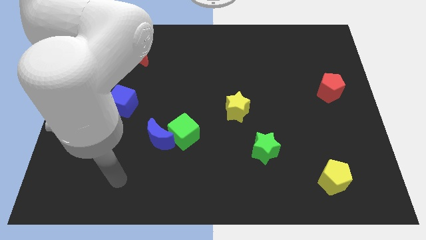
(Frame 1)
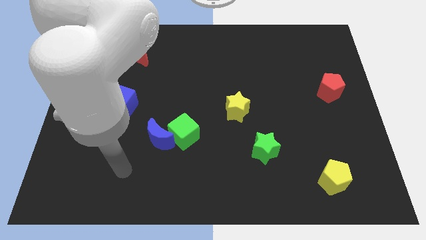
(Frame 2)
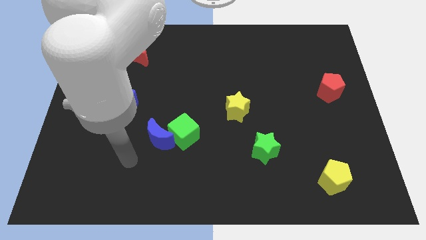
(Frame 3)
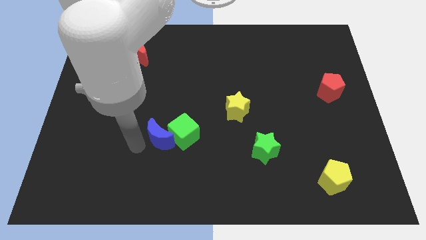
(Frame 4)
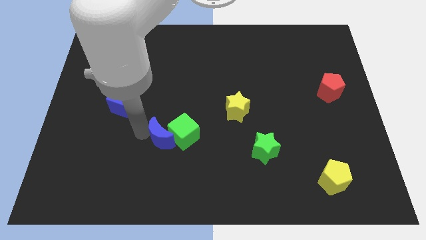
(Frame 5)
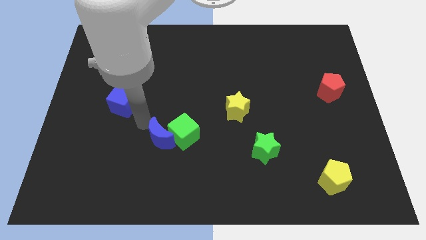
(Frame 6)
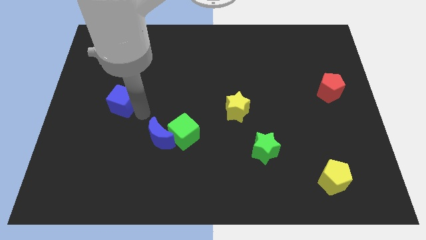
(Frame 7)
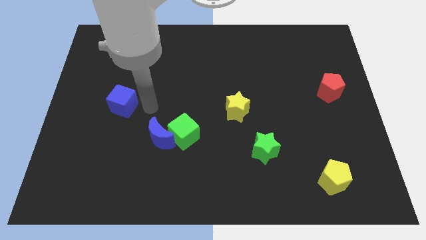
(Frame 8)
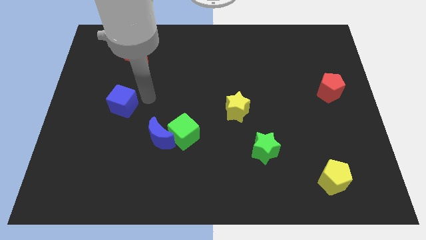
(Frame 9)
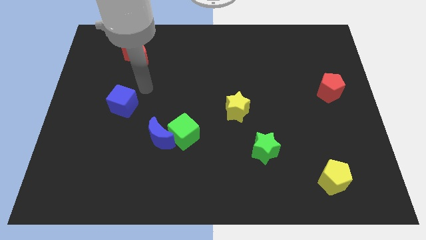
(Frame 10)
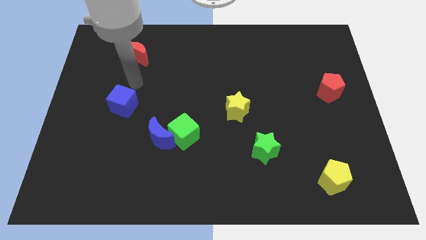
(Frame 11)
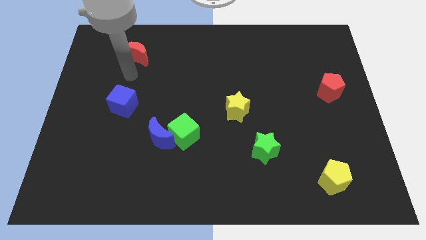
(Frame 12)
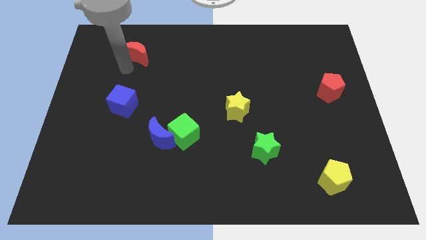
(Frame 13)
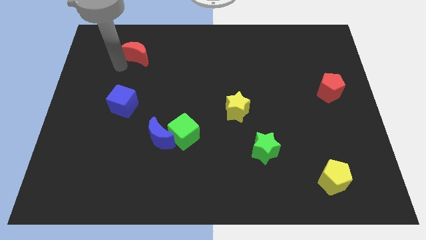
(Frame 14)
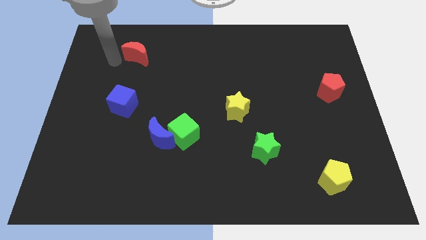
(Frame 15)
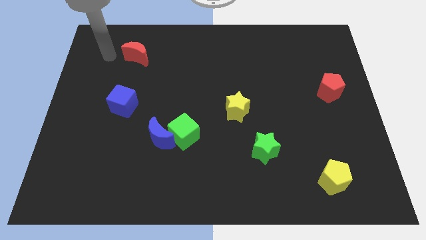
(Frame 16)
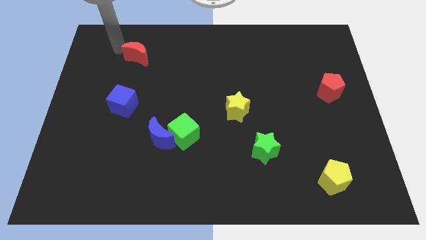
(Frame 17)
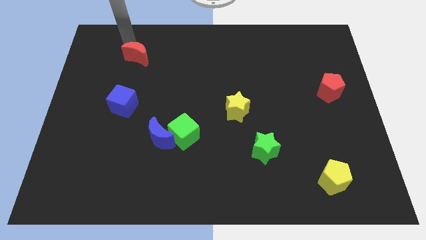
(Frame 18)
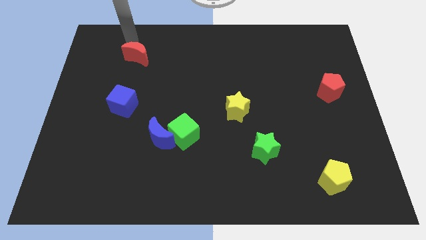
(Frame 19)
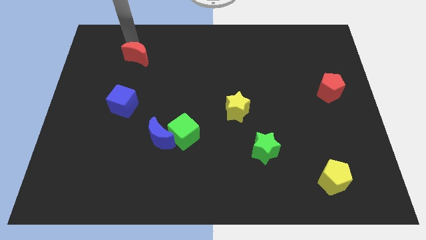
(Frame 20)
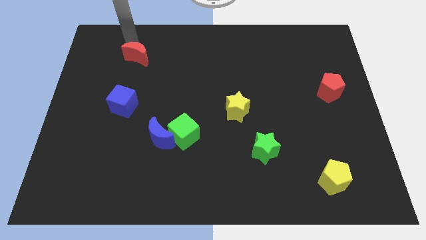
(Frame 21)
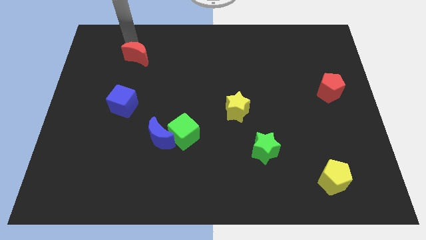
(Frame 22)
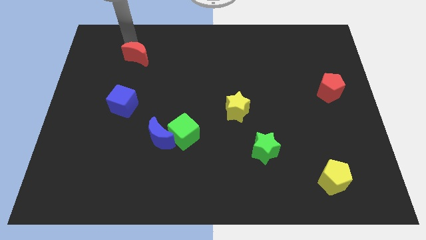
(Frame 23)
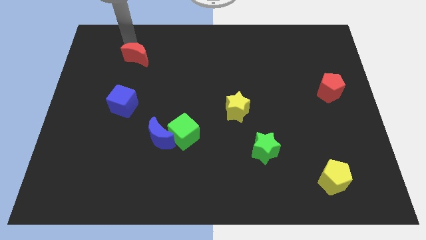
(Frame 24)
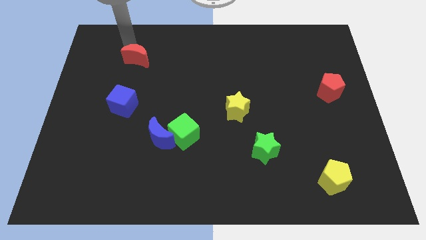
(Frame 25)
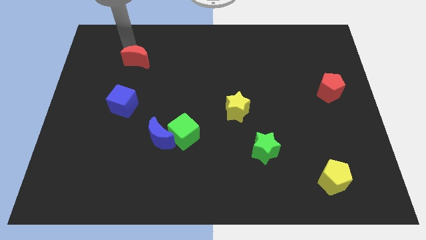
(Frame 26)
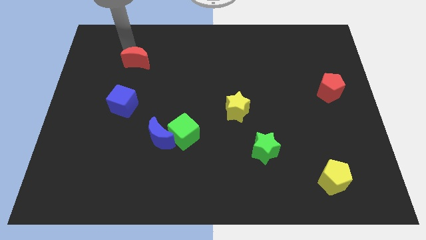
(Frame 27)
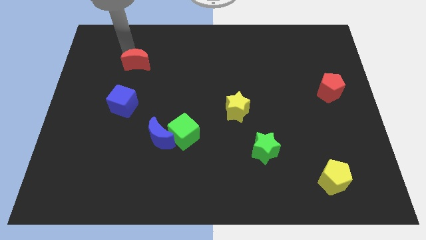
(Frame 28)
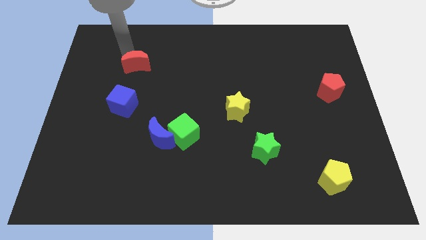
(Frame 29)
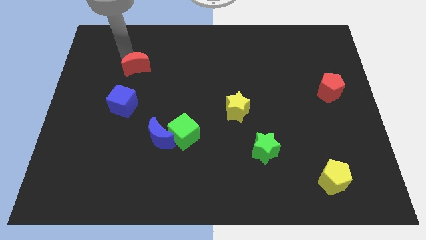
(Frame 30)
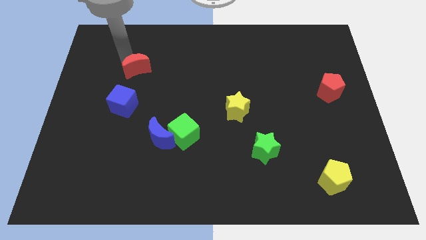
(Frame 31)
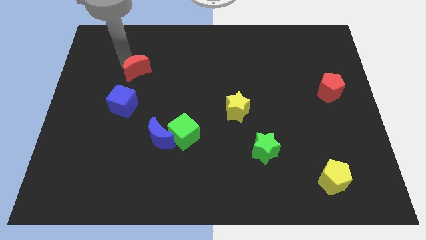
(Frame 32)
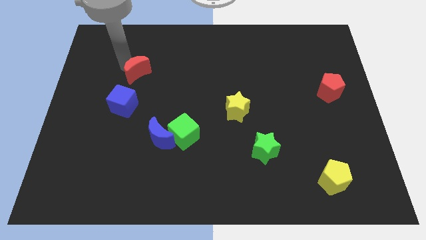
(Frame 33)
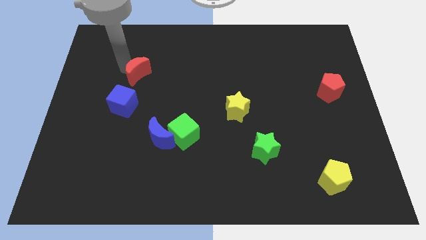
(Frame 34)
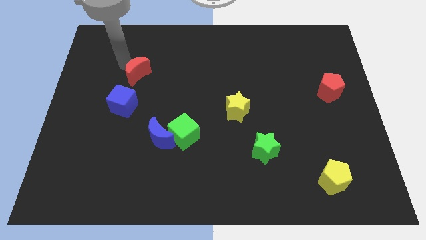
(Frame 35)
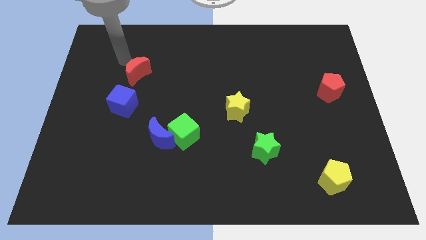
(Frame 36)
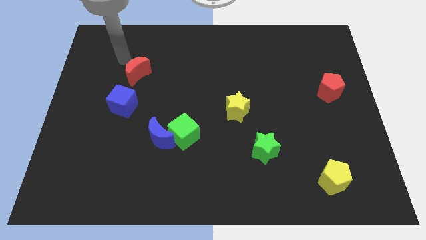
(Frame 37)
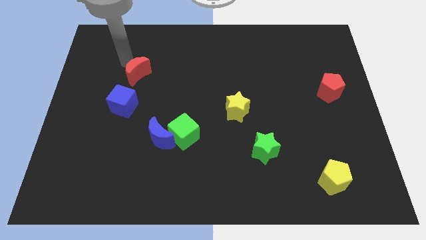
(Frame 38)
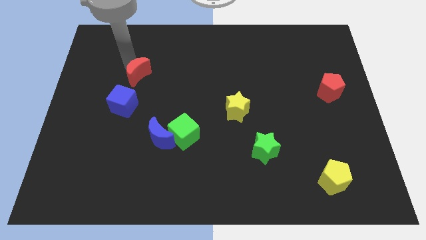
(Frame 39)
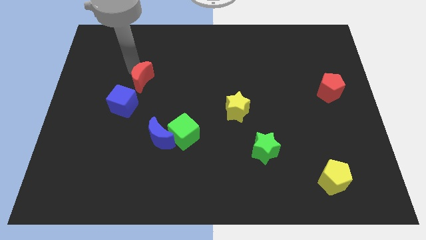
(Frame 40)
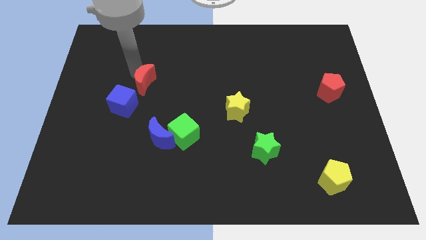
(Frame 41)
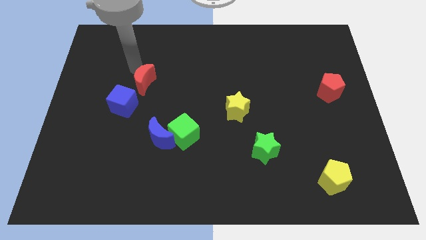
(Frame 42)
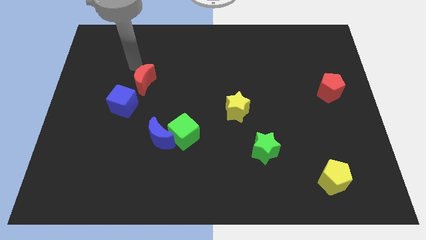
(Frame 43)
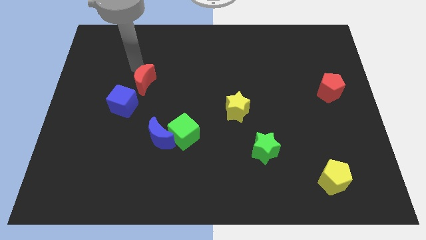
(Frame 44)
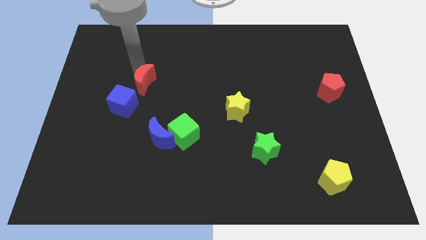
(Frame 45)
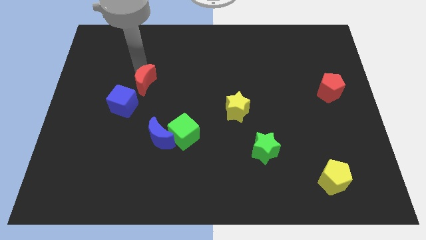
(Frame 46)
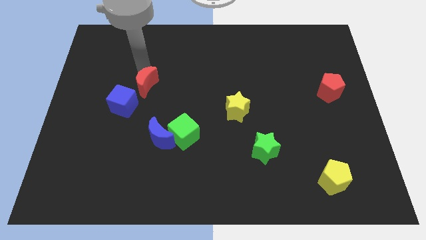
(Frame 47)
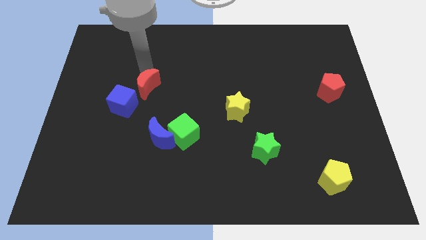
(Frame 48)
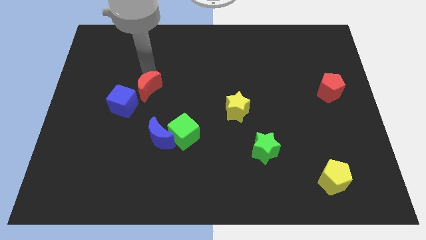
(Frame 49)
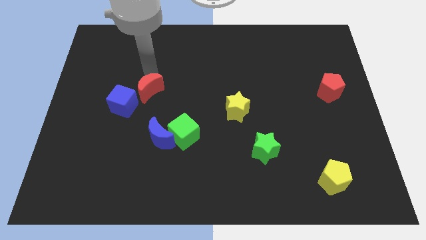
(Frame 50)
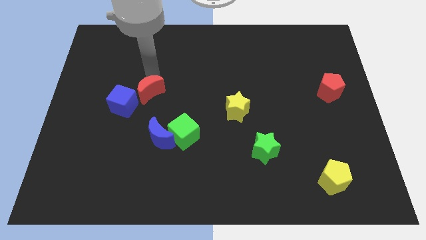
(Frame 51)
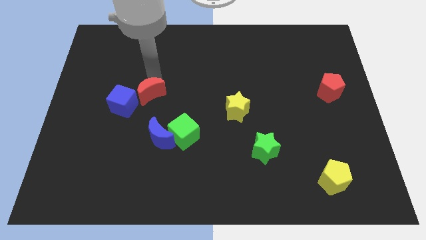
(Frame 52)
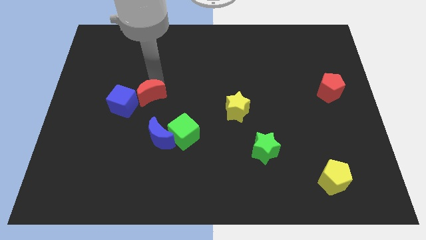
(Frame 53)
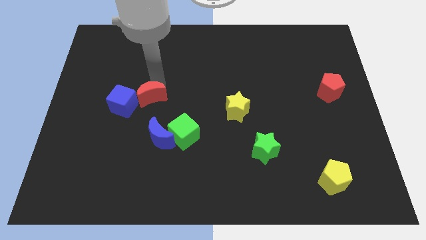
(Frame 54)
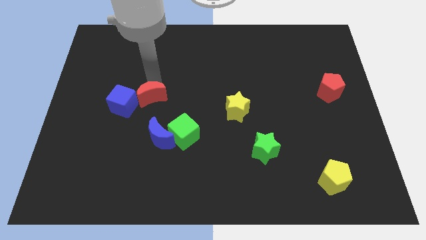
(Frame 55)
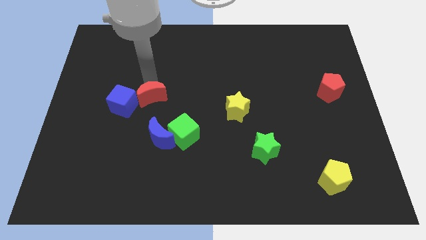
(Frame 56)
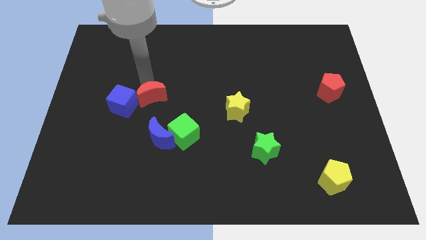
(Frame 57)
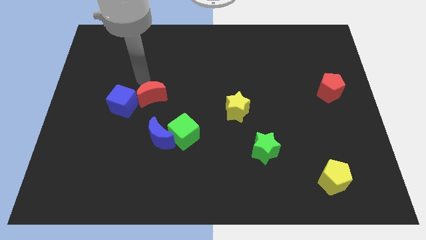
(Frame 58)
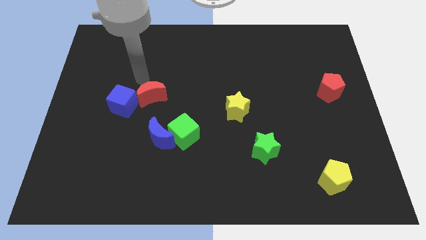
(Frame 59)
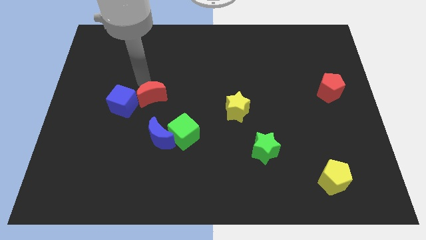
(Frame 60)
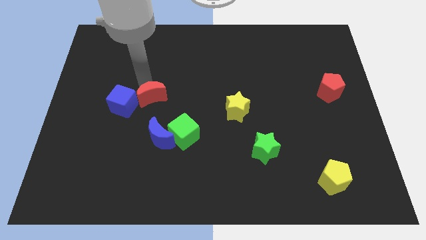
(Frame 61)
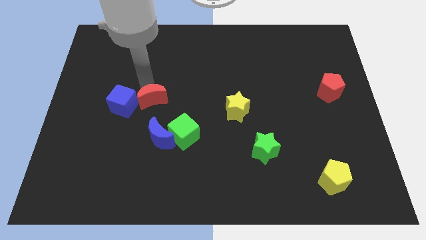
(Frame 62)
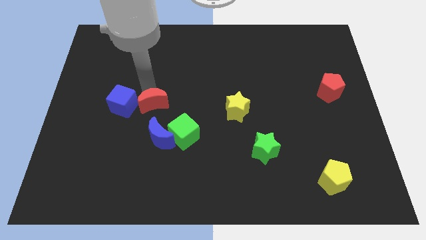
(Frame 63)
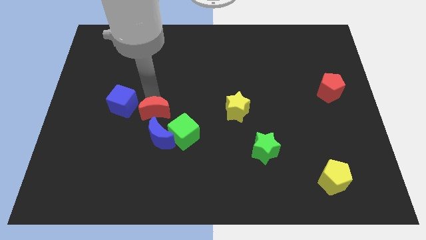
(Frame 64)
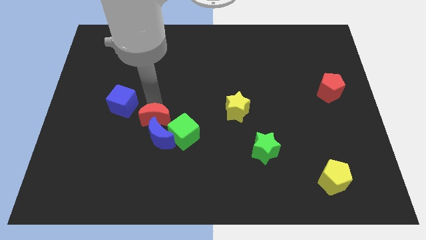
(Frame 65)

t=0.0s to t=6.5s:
move the red moon next to the blue moon

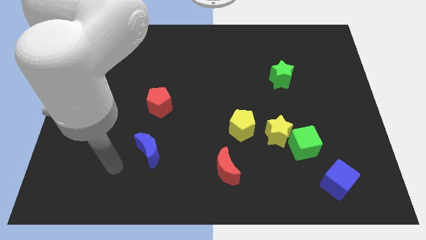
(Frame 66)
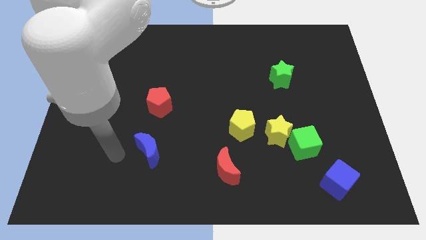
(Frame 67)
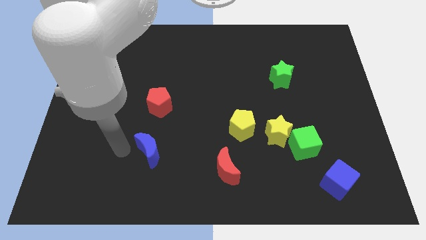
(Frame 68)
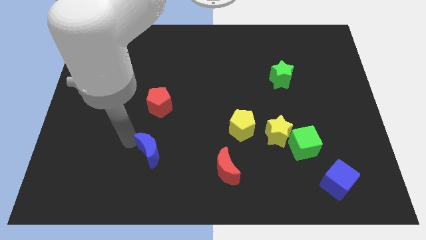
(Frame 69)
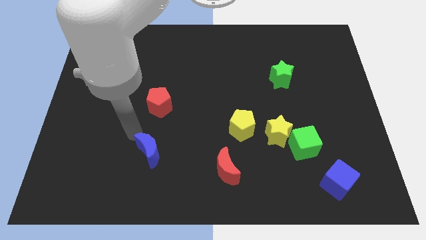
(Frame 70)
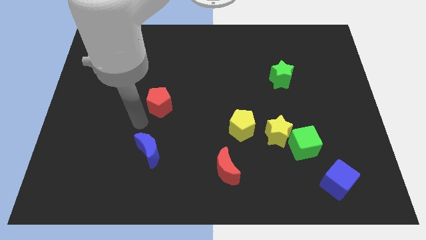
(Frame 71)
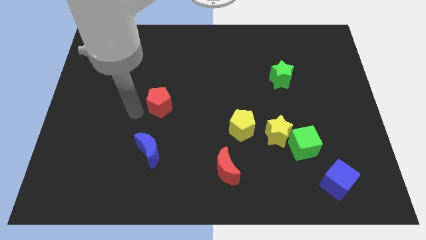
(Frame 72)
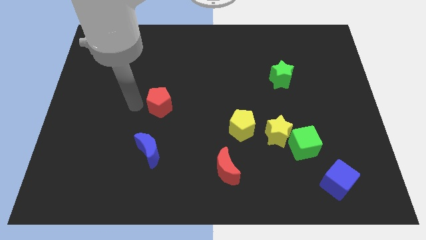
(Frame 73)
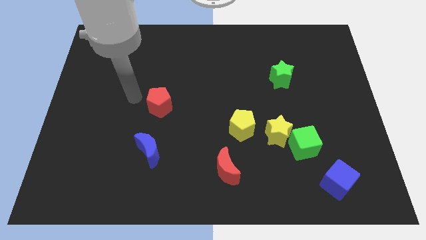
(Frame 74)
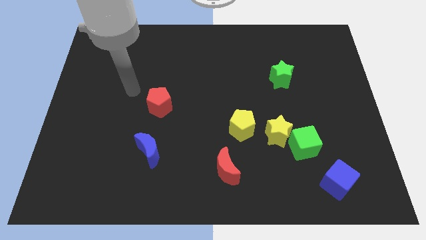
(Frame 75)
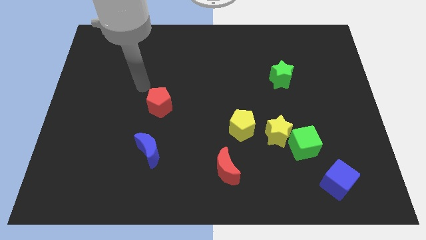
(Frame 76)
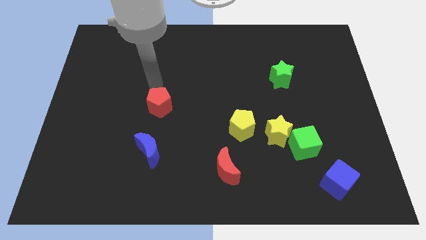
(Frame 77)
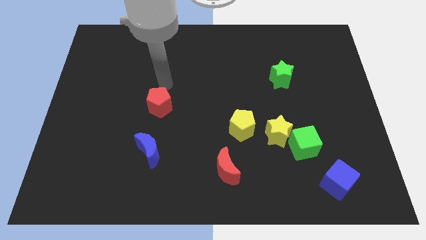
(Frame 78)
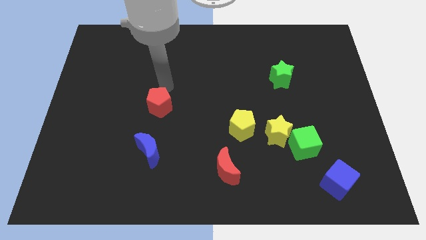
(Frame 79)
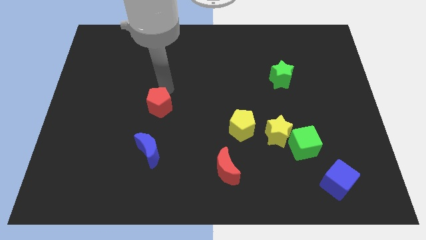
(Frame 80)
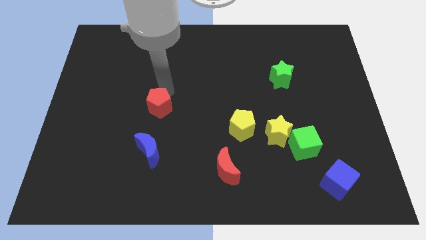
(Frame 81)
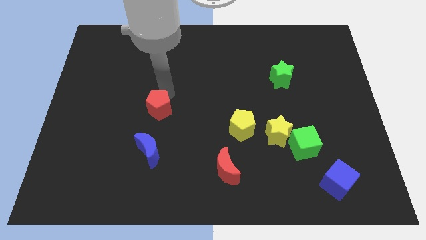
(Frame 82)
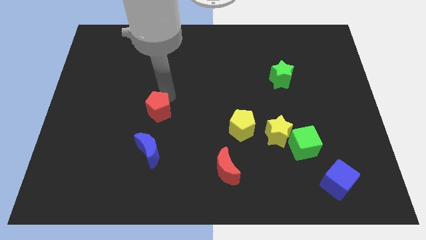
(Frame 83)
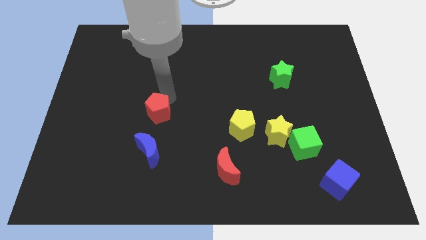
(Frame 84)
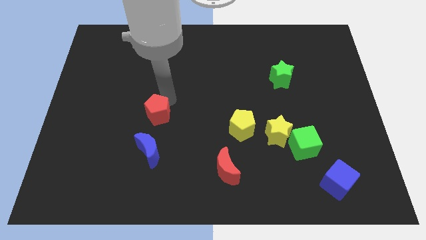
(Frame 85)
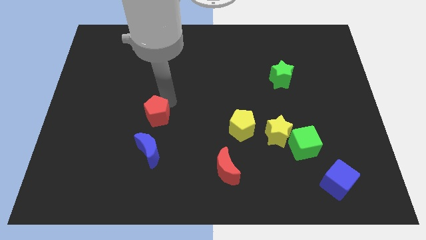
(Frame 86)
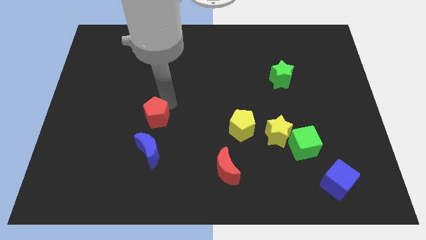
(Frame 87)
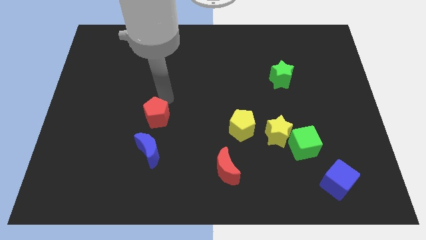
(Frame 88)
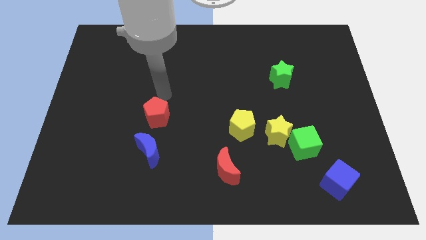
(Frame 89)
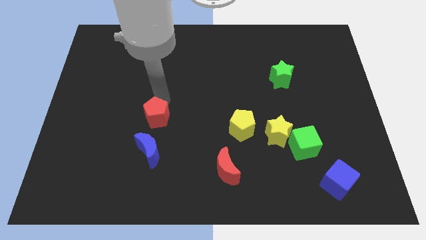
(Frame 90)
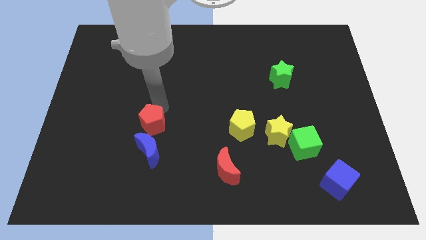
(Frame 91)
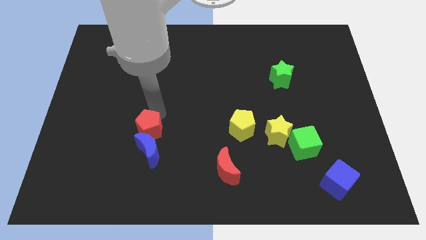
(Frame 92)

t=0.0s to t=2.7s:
put the red pentagon towards the blue moon
